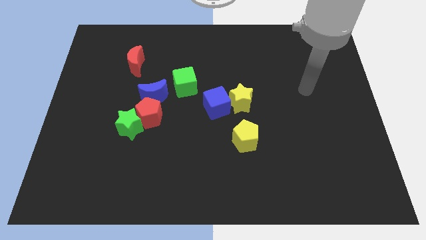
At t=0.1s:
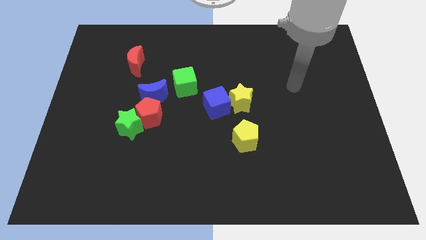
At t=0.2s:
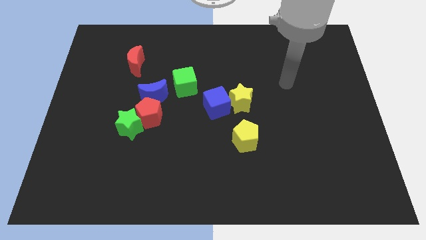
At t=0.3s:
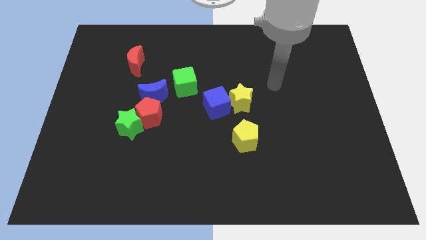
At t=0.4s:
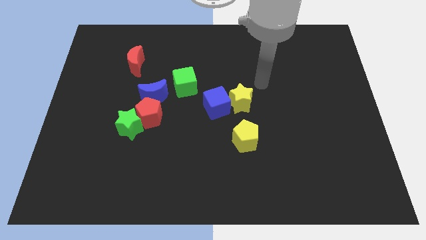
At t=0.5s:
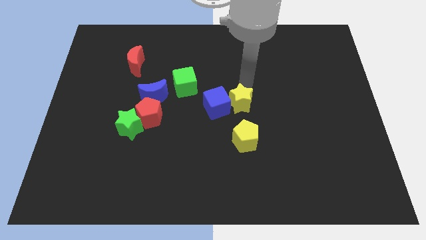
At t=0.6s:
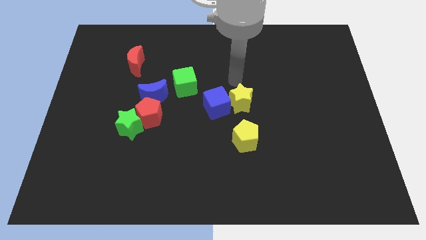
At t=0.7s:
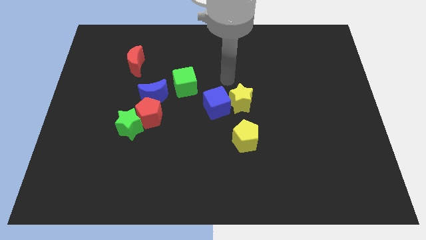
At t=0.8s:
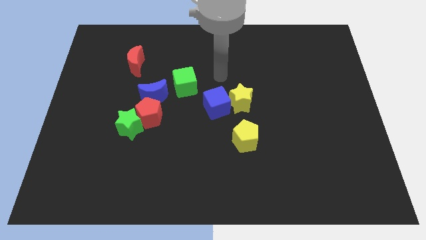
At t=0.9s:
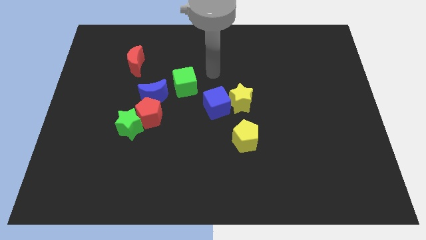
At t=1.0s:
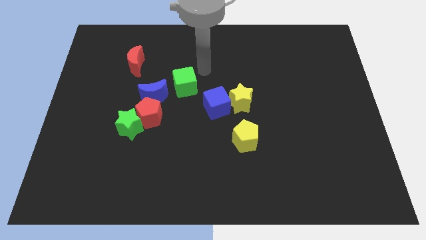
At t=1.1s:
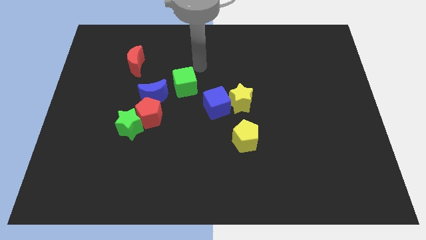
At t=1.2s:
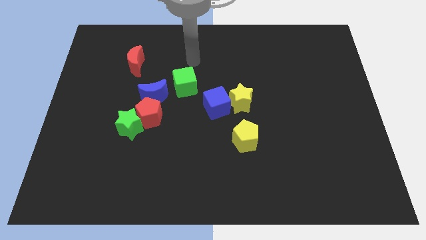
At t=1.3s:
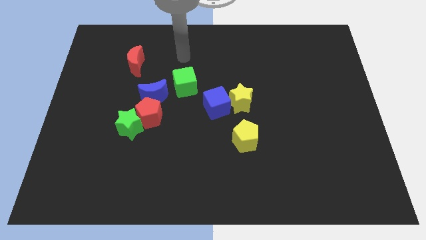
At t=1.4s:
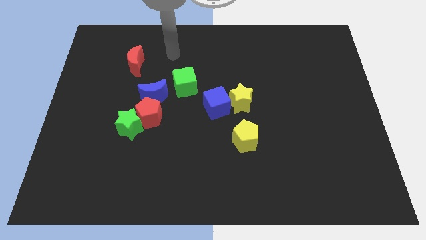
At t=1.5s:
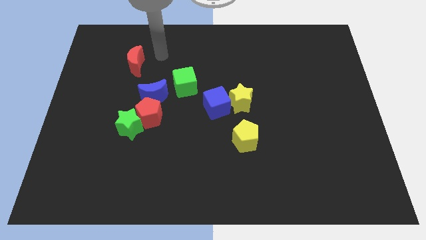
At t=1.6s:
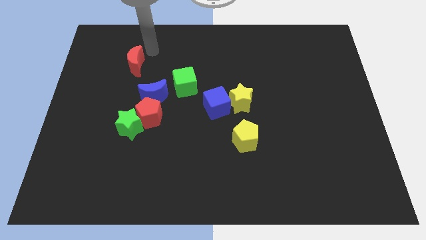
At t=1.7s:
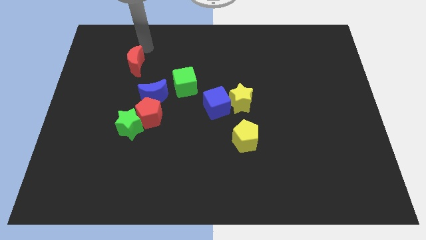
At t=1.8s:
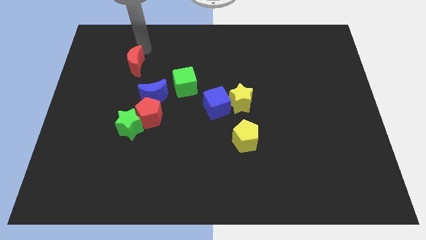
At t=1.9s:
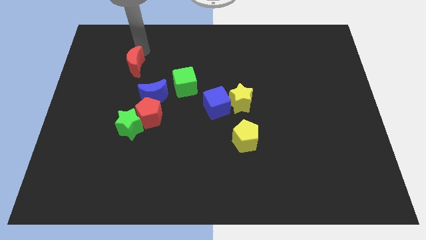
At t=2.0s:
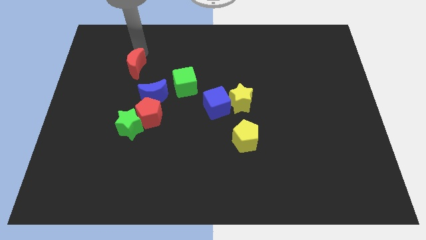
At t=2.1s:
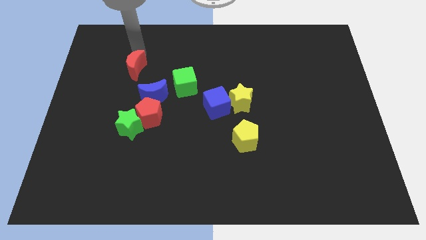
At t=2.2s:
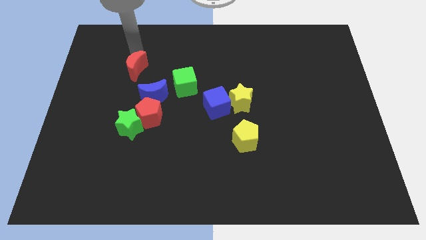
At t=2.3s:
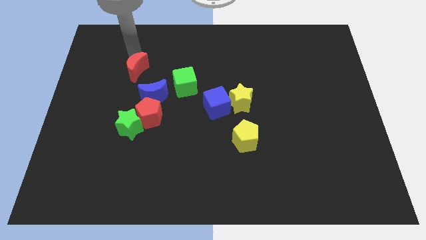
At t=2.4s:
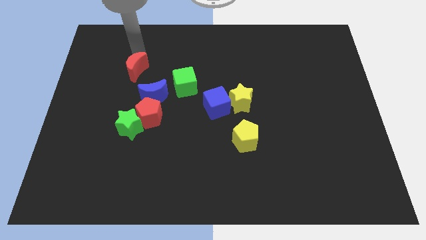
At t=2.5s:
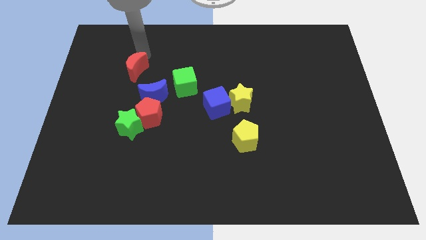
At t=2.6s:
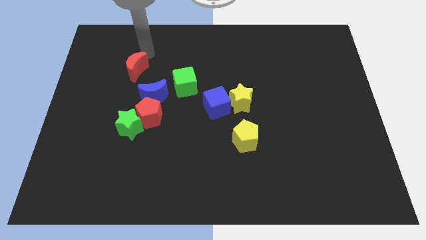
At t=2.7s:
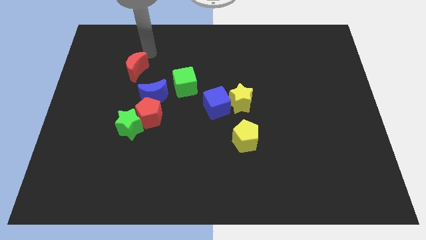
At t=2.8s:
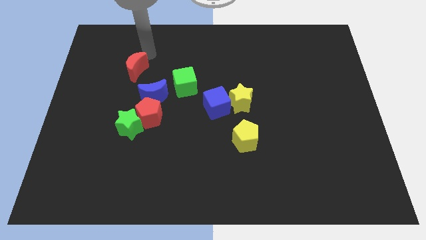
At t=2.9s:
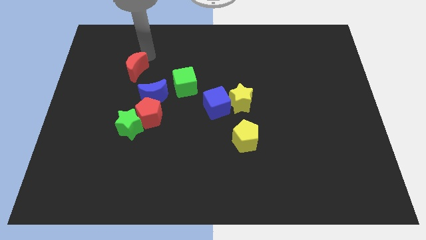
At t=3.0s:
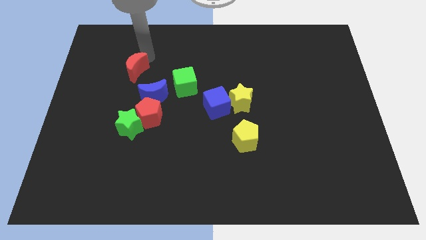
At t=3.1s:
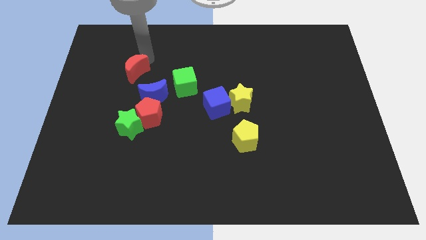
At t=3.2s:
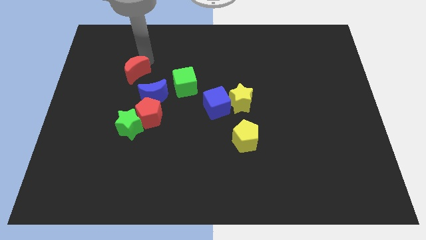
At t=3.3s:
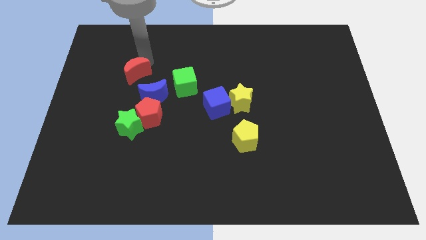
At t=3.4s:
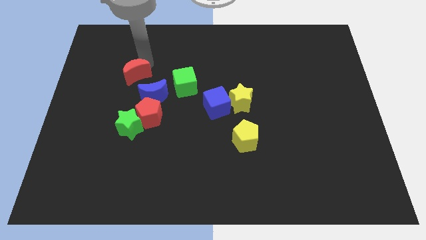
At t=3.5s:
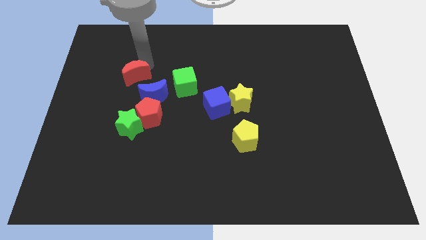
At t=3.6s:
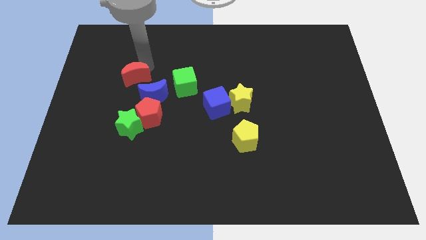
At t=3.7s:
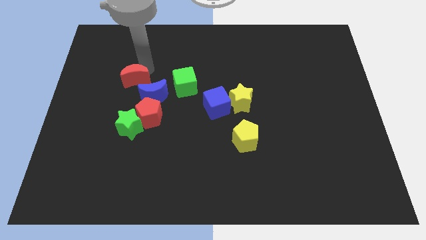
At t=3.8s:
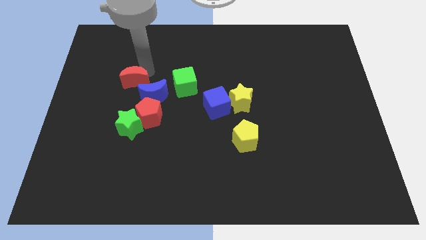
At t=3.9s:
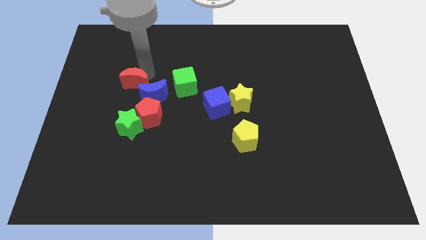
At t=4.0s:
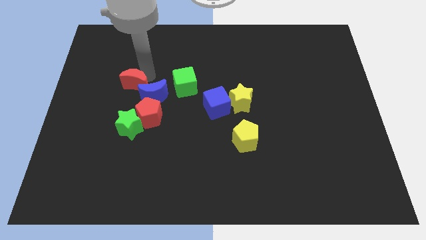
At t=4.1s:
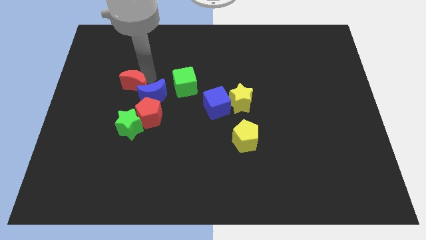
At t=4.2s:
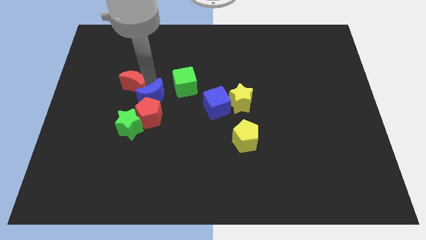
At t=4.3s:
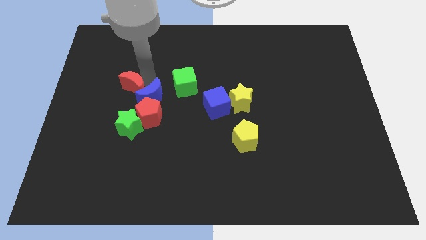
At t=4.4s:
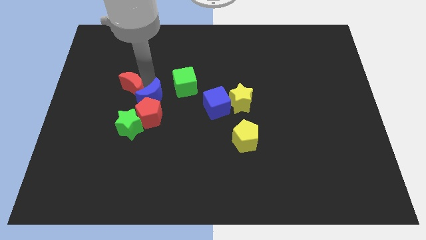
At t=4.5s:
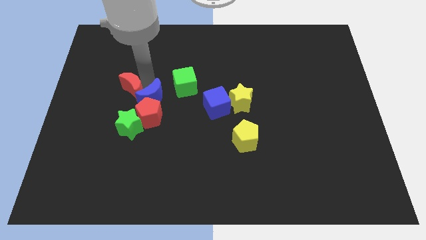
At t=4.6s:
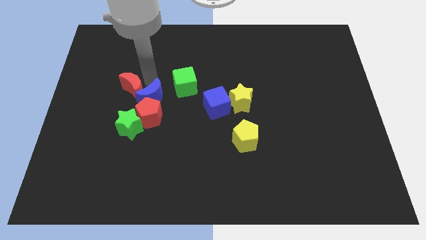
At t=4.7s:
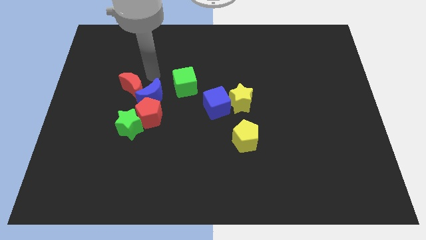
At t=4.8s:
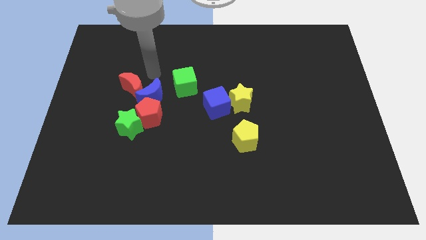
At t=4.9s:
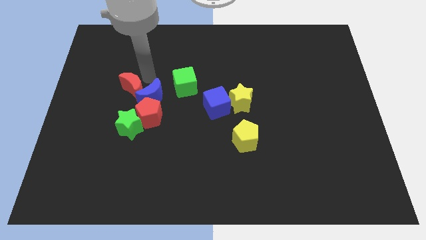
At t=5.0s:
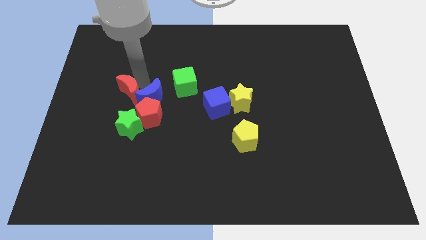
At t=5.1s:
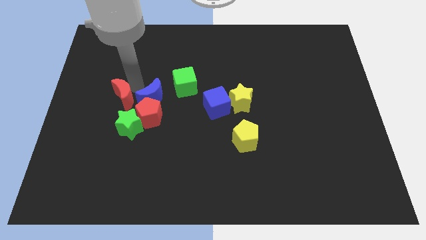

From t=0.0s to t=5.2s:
put the red moon diagonally up and to the left of the green star
